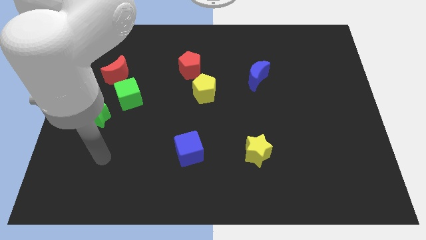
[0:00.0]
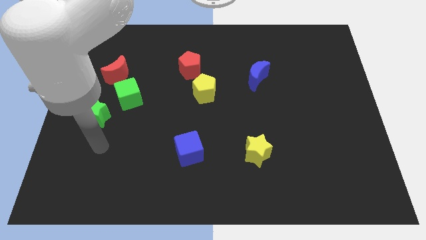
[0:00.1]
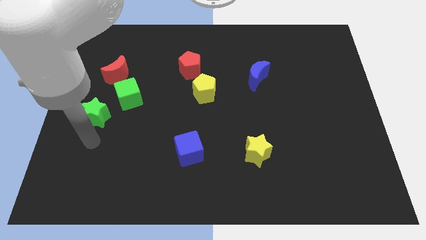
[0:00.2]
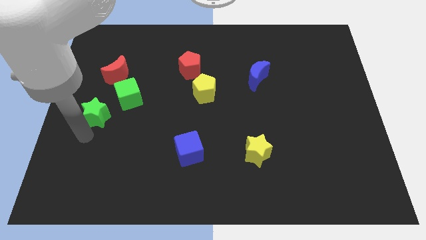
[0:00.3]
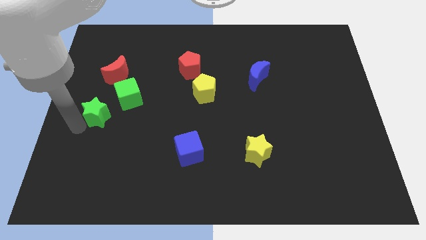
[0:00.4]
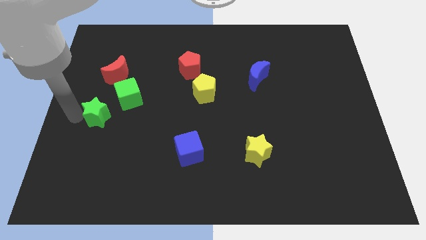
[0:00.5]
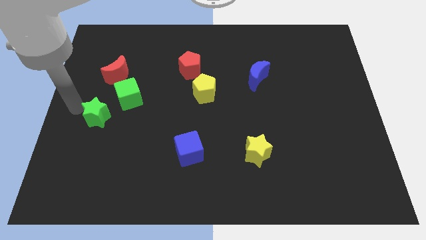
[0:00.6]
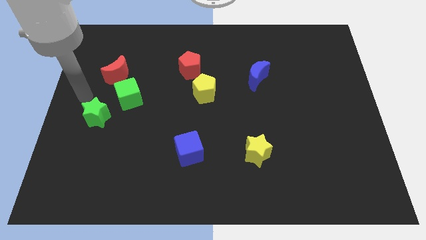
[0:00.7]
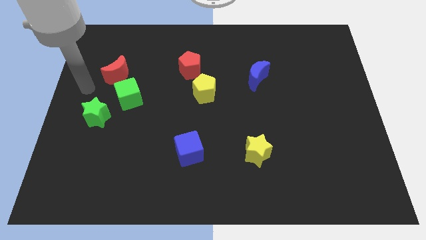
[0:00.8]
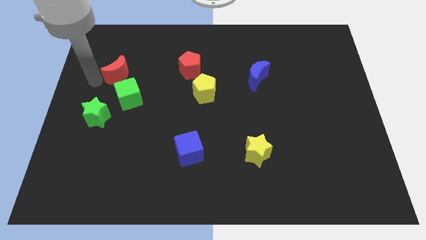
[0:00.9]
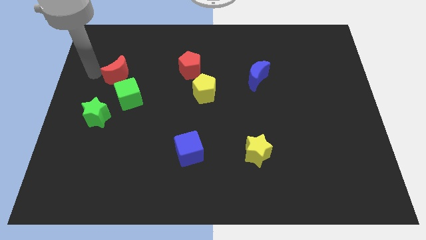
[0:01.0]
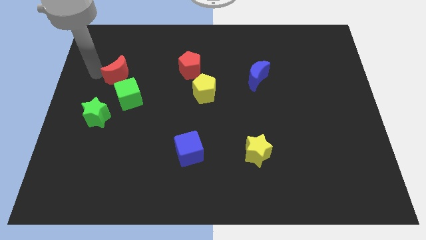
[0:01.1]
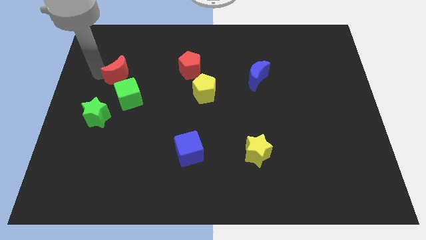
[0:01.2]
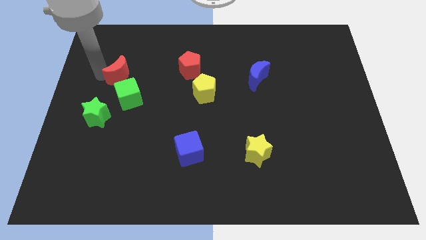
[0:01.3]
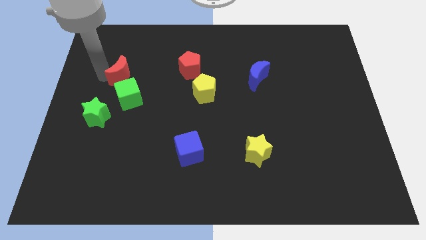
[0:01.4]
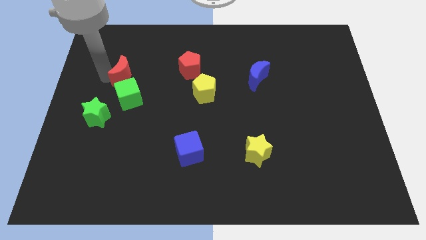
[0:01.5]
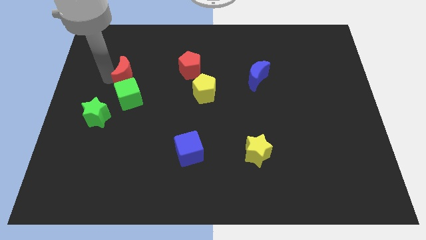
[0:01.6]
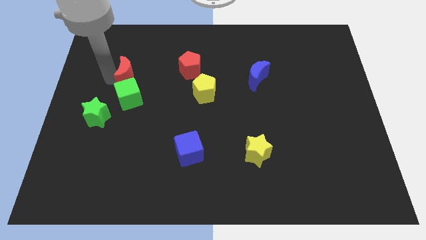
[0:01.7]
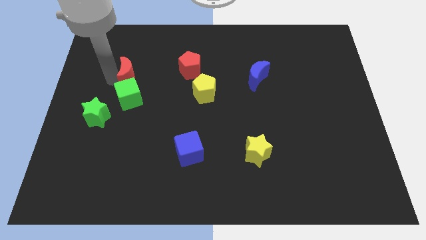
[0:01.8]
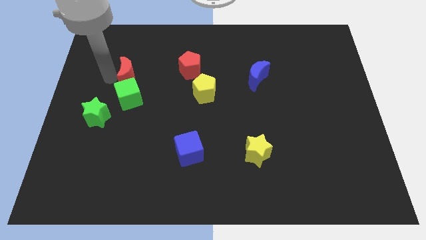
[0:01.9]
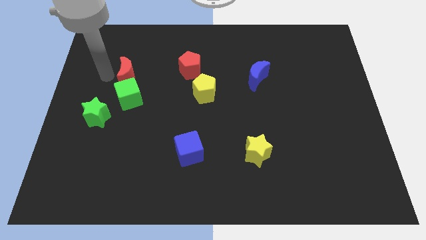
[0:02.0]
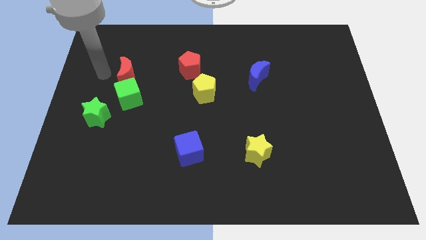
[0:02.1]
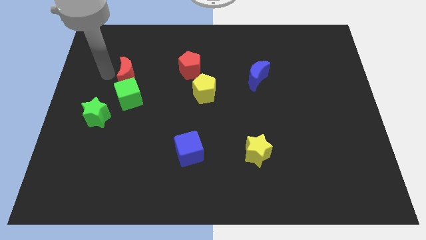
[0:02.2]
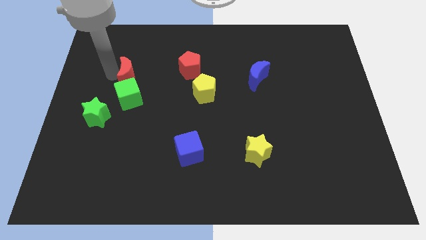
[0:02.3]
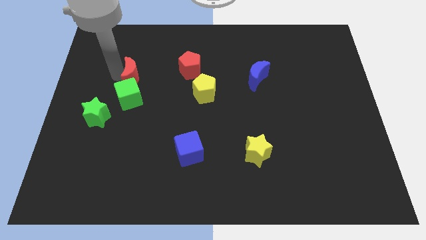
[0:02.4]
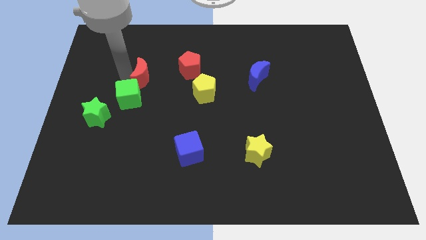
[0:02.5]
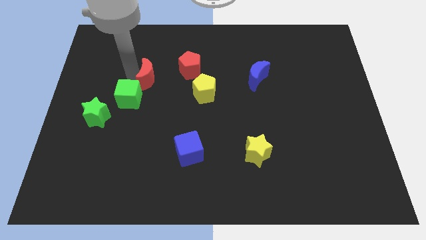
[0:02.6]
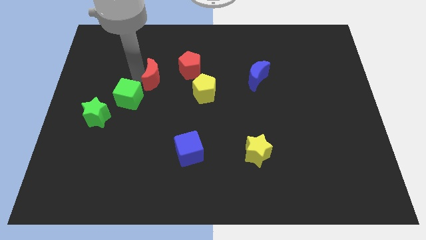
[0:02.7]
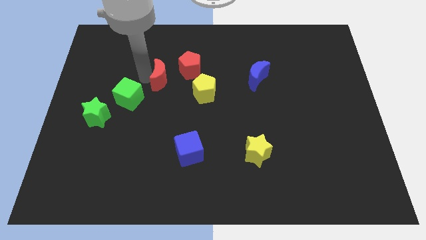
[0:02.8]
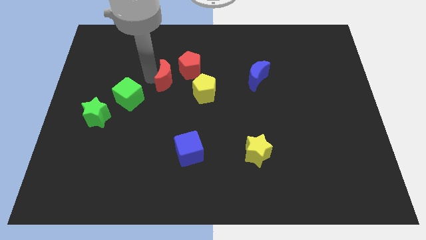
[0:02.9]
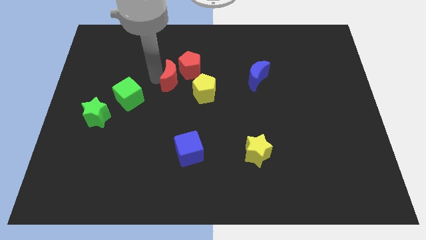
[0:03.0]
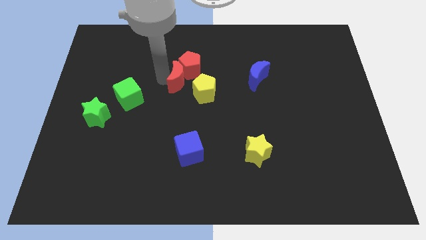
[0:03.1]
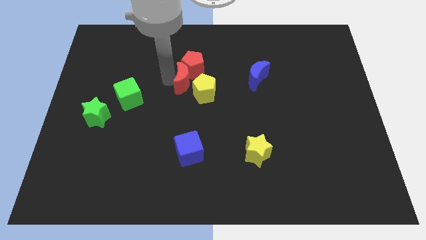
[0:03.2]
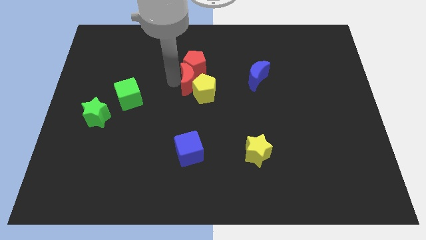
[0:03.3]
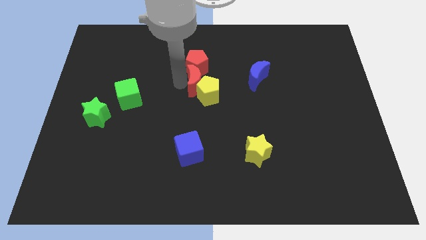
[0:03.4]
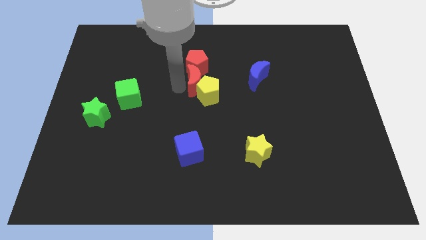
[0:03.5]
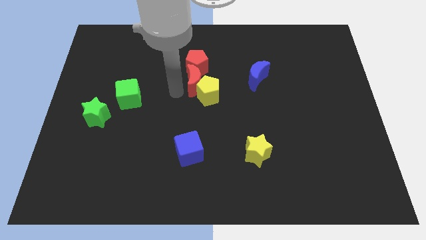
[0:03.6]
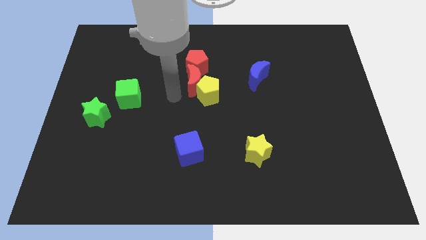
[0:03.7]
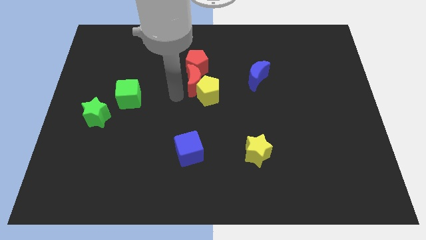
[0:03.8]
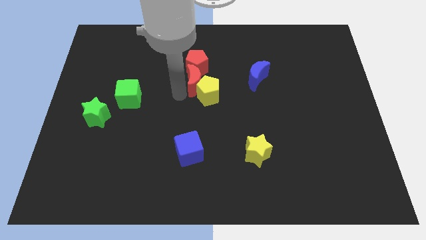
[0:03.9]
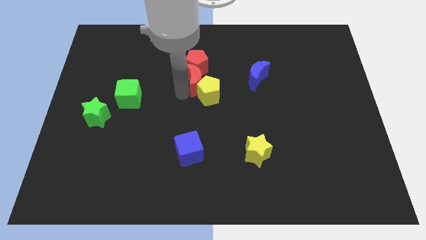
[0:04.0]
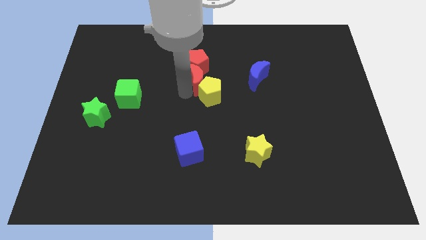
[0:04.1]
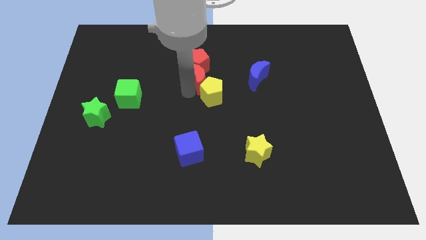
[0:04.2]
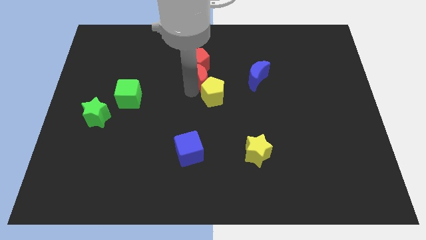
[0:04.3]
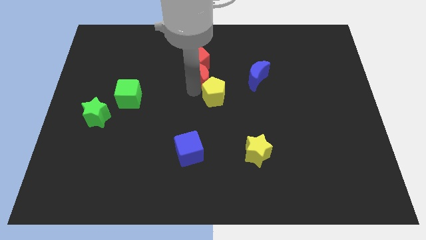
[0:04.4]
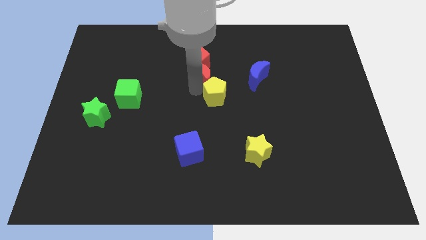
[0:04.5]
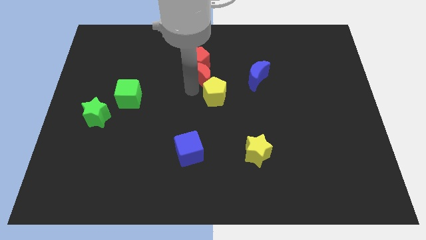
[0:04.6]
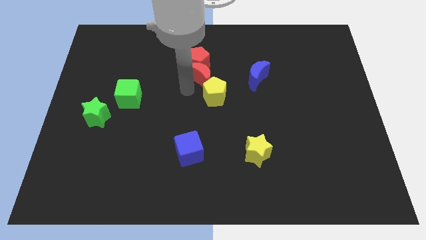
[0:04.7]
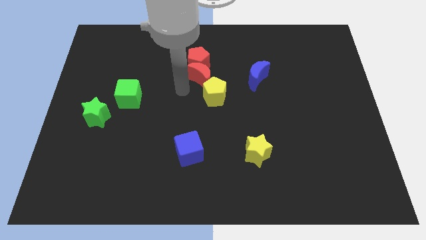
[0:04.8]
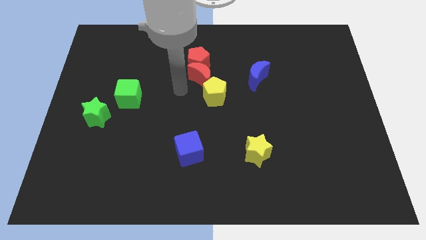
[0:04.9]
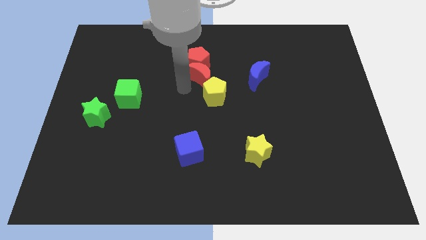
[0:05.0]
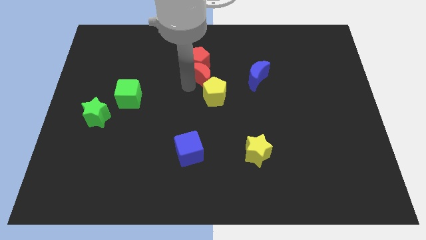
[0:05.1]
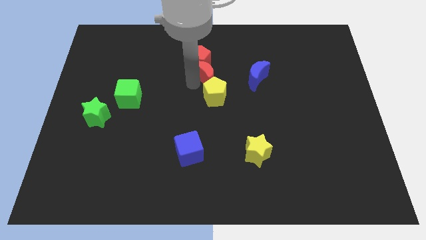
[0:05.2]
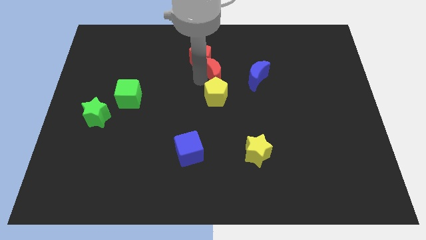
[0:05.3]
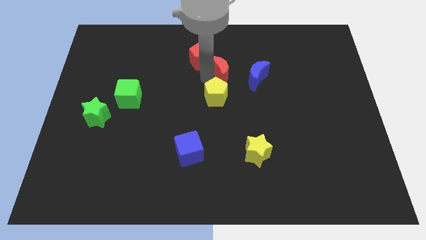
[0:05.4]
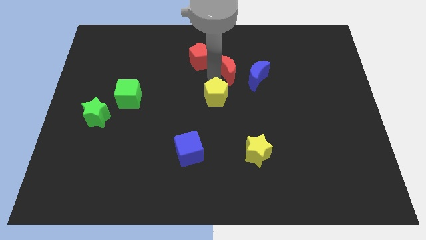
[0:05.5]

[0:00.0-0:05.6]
slide the red moon diagonally up and to the left of the blue moon

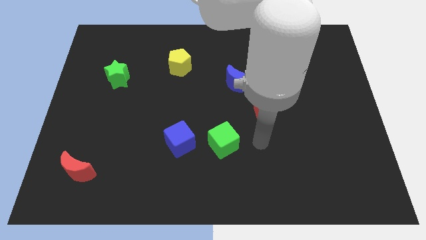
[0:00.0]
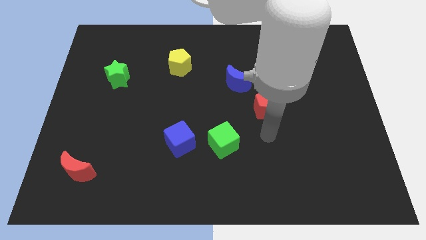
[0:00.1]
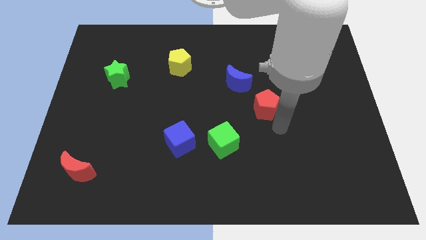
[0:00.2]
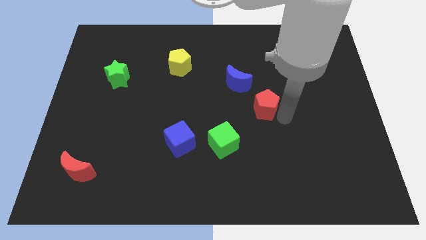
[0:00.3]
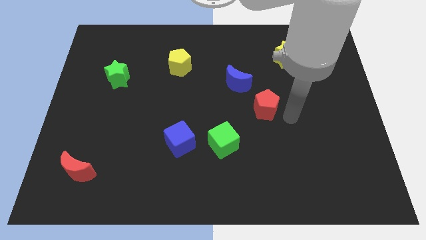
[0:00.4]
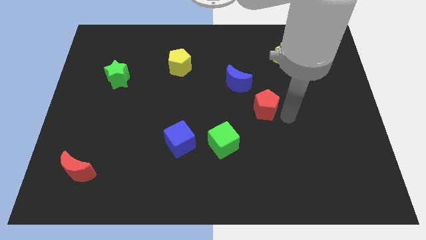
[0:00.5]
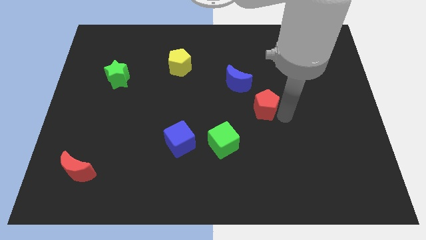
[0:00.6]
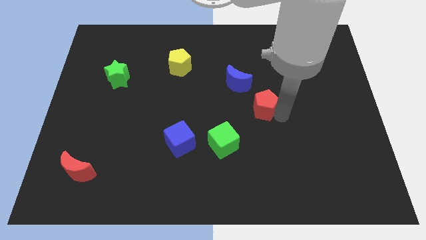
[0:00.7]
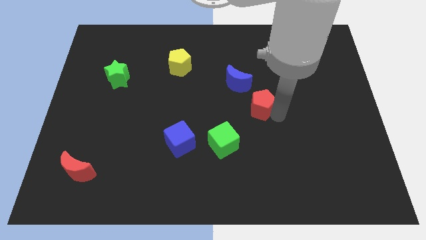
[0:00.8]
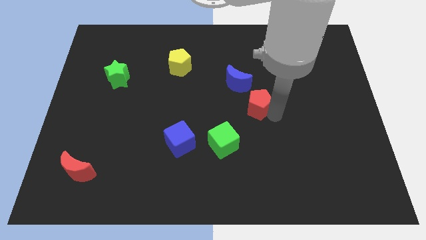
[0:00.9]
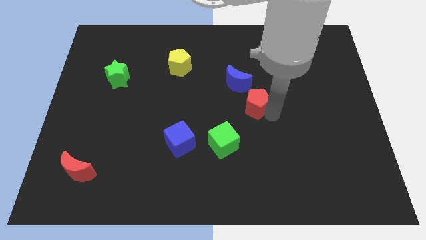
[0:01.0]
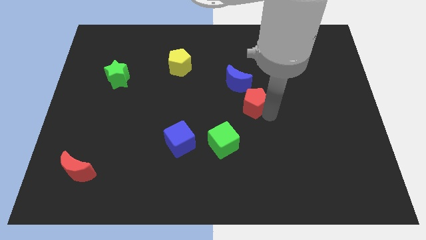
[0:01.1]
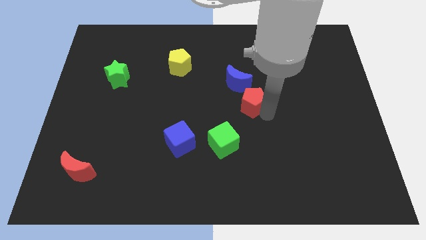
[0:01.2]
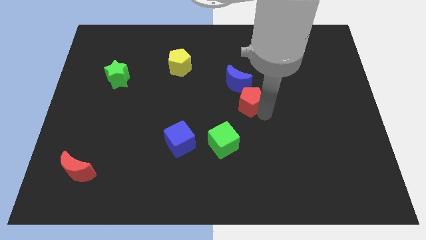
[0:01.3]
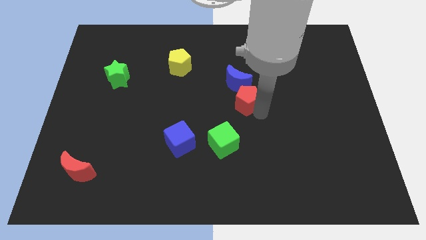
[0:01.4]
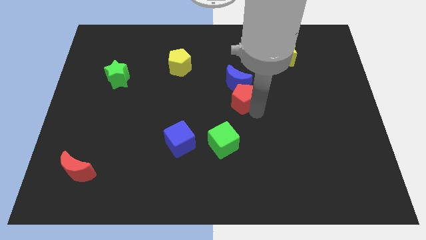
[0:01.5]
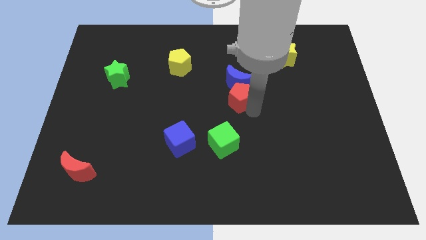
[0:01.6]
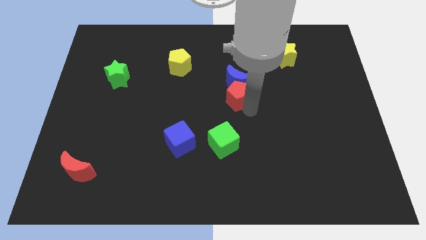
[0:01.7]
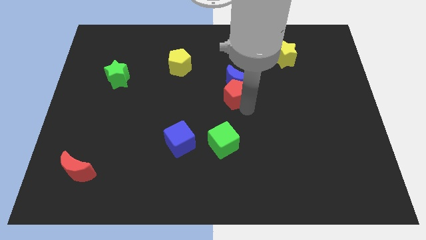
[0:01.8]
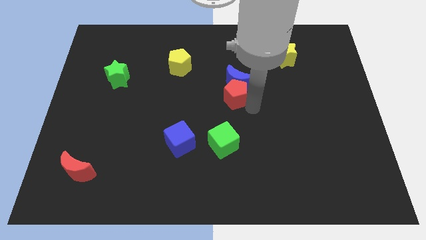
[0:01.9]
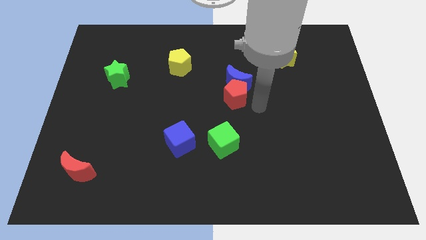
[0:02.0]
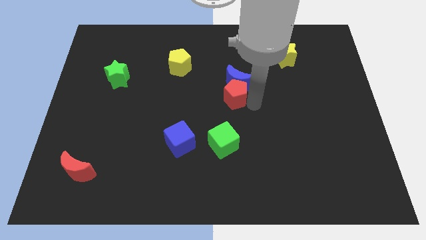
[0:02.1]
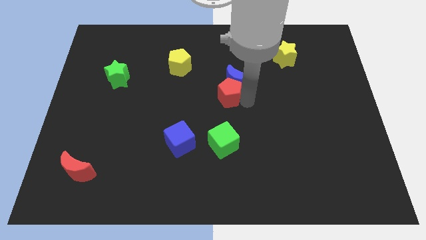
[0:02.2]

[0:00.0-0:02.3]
put the red pentagon to the left of the blue moon
